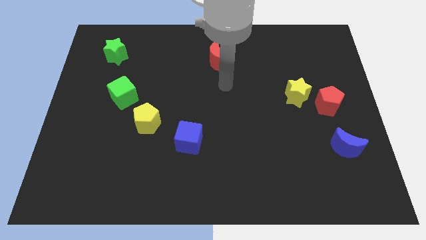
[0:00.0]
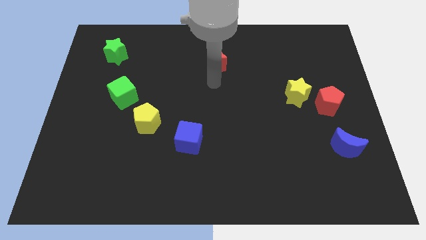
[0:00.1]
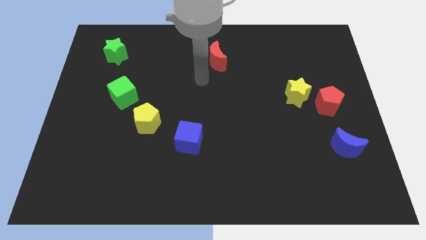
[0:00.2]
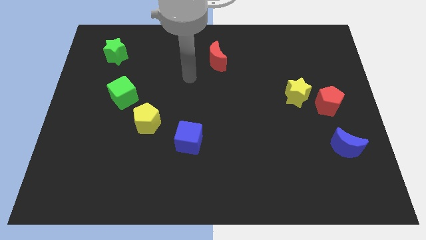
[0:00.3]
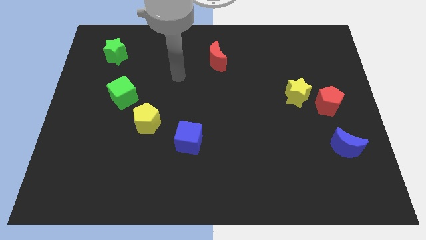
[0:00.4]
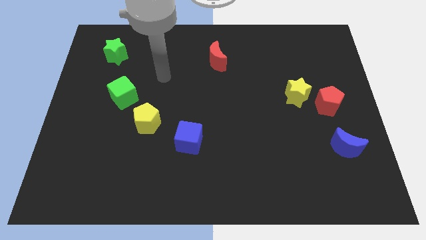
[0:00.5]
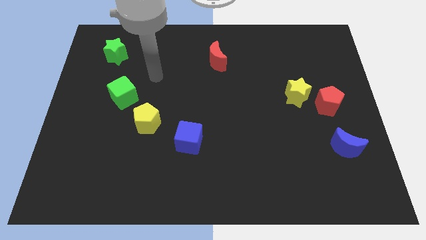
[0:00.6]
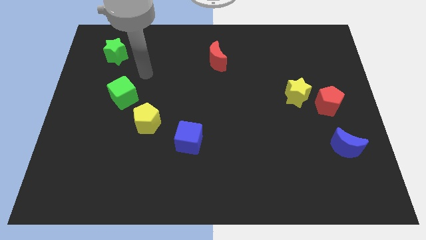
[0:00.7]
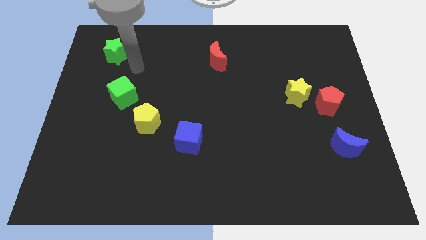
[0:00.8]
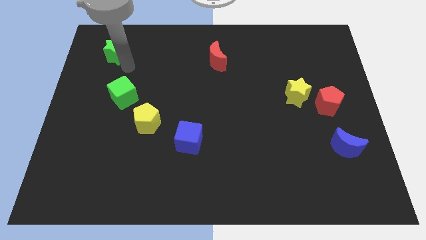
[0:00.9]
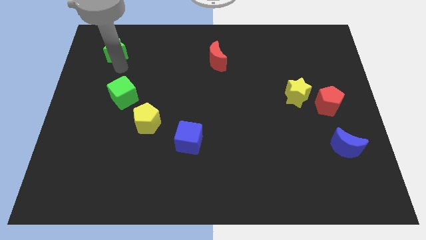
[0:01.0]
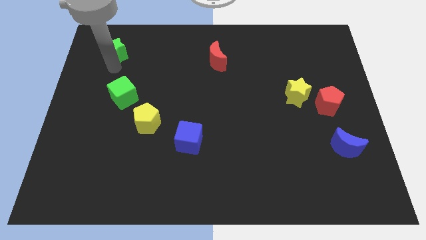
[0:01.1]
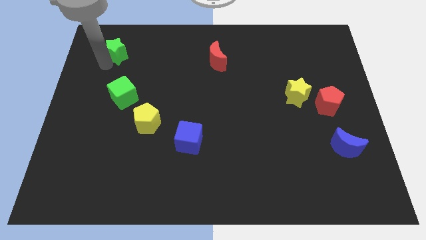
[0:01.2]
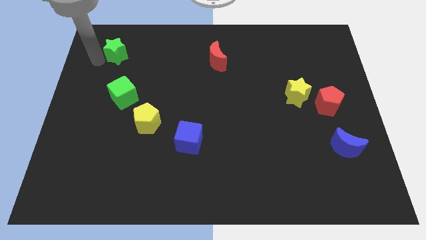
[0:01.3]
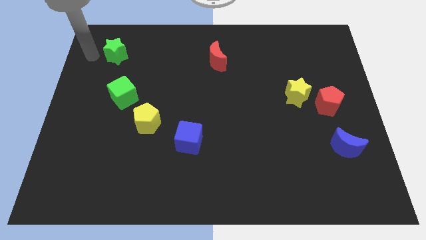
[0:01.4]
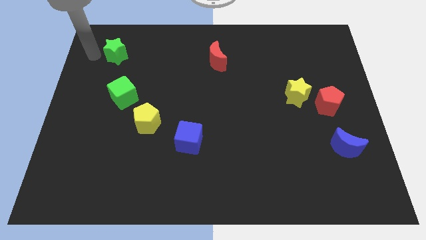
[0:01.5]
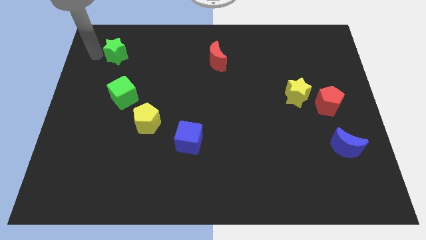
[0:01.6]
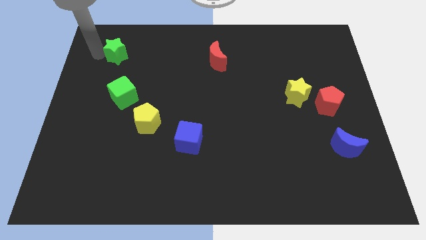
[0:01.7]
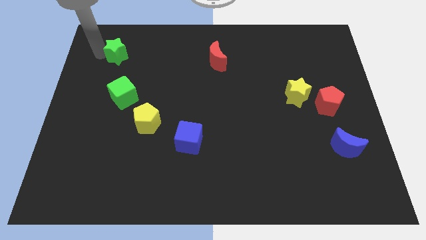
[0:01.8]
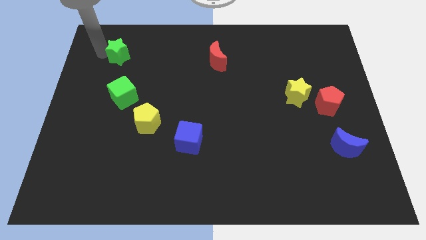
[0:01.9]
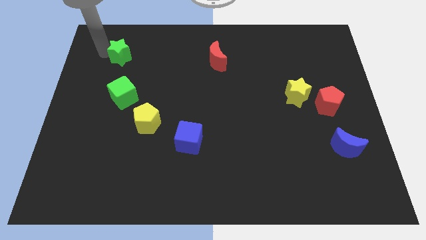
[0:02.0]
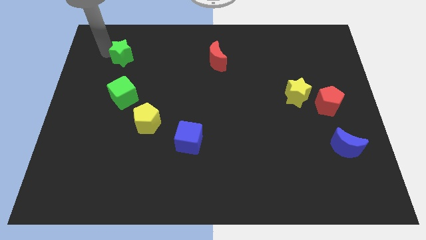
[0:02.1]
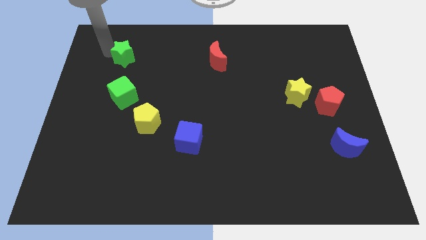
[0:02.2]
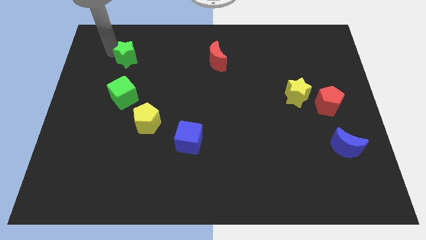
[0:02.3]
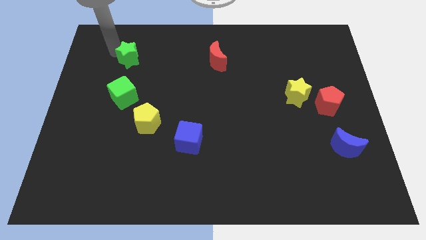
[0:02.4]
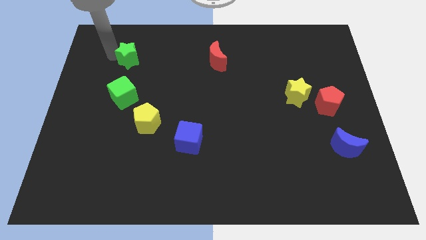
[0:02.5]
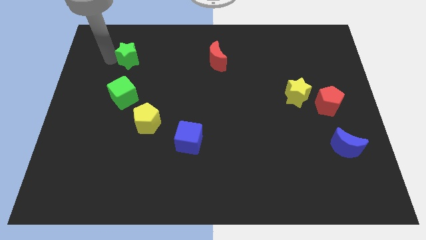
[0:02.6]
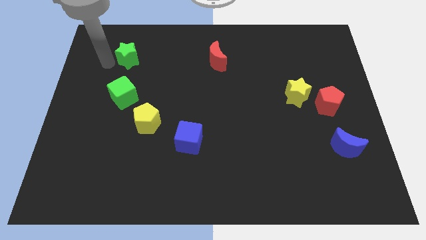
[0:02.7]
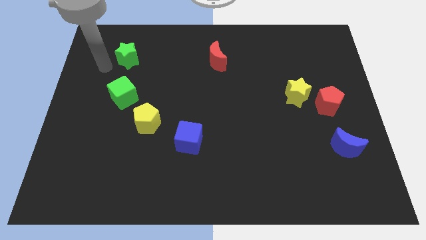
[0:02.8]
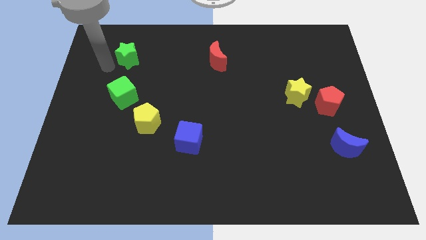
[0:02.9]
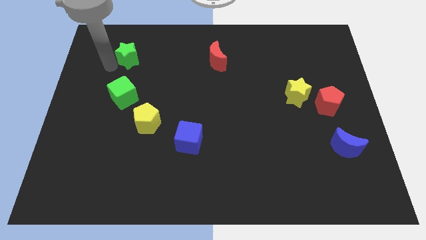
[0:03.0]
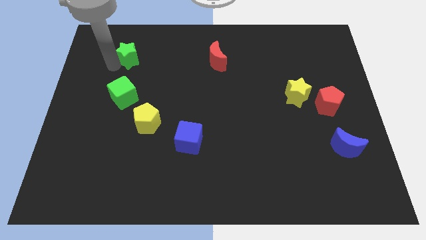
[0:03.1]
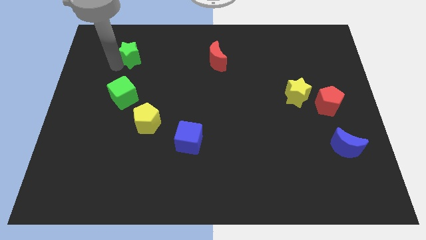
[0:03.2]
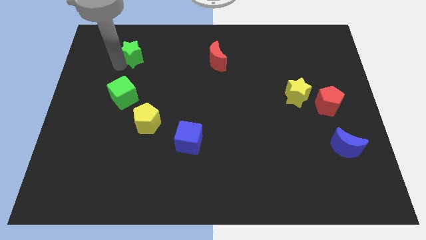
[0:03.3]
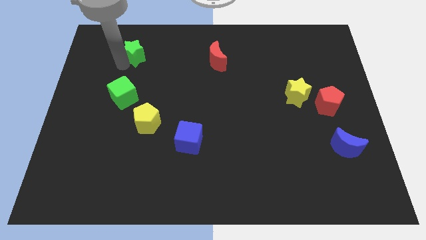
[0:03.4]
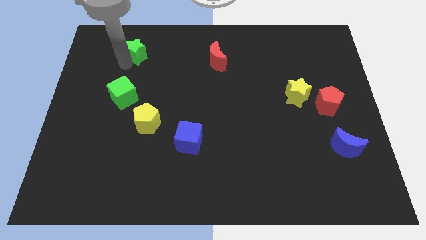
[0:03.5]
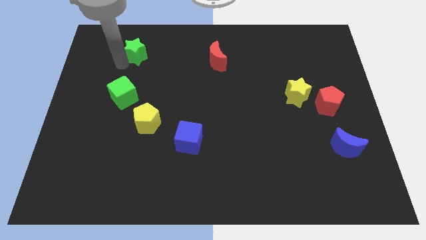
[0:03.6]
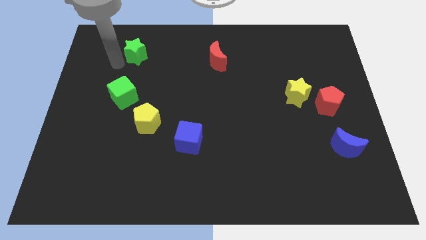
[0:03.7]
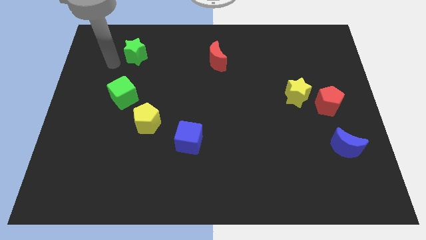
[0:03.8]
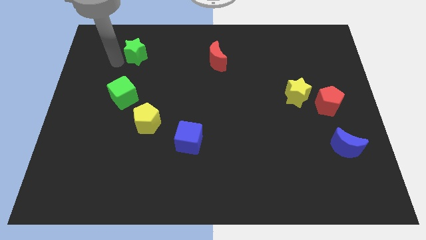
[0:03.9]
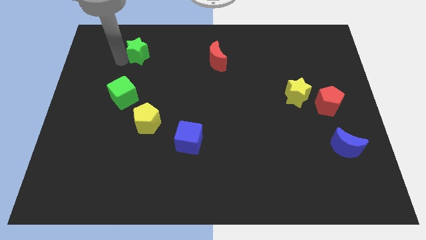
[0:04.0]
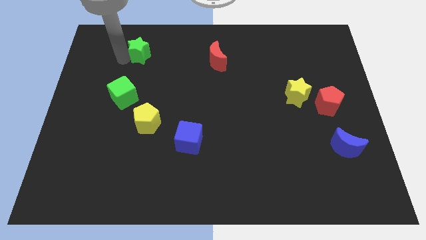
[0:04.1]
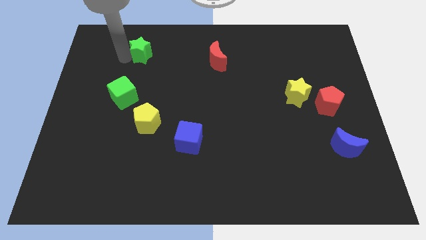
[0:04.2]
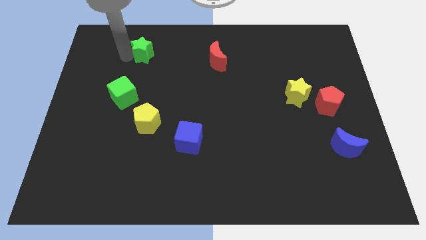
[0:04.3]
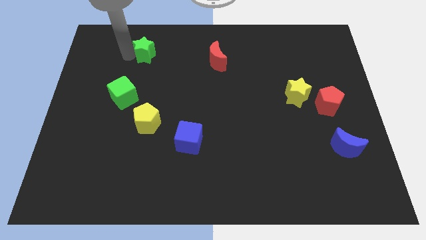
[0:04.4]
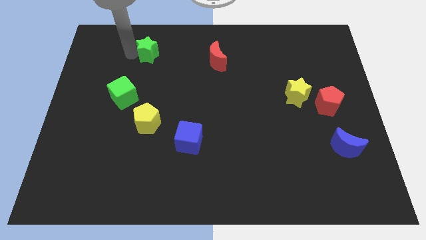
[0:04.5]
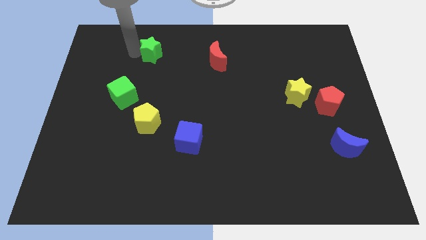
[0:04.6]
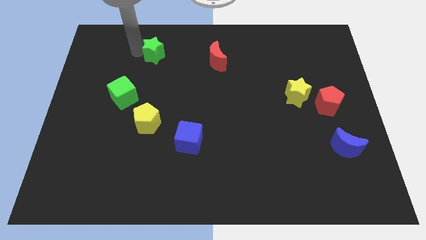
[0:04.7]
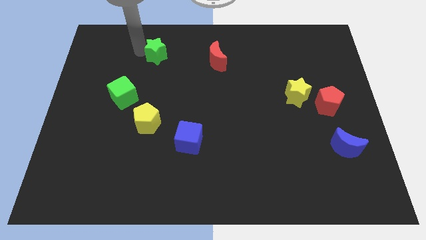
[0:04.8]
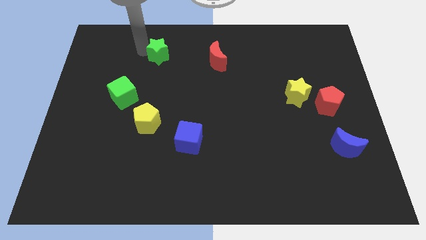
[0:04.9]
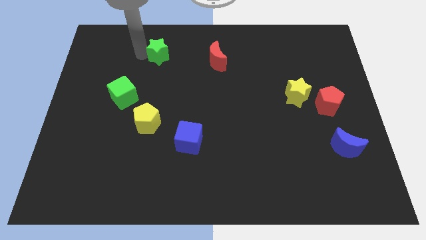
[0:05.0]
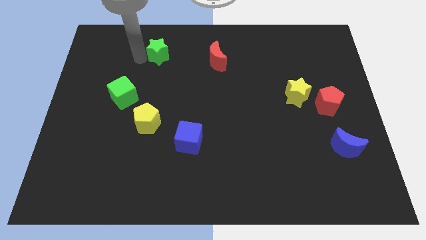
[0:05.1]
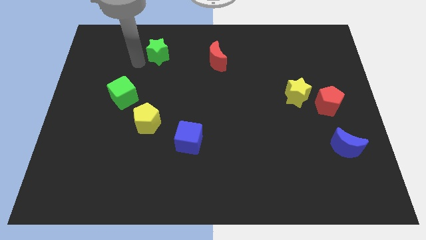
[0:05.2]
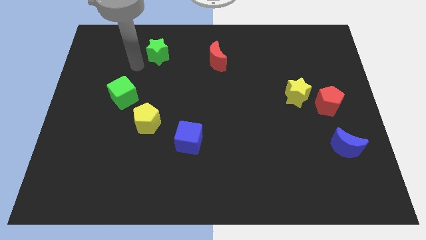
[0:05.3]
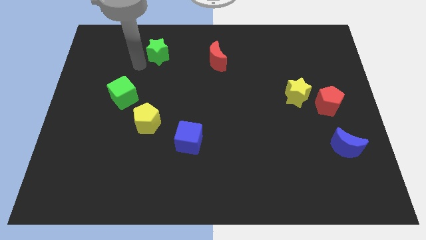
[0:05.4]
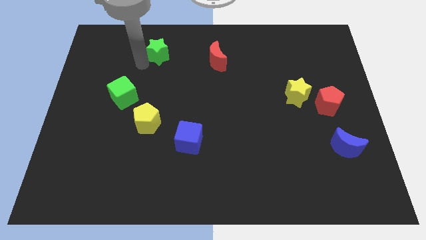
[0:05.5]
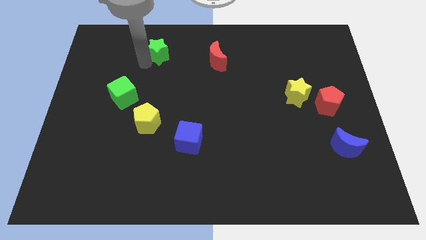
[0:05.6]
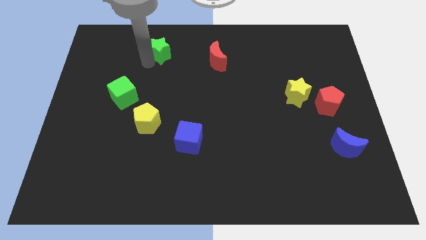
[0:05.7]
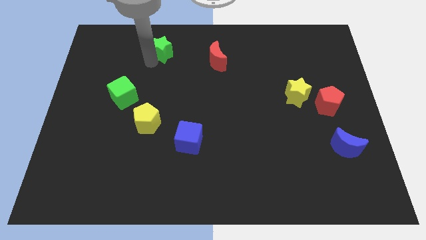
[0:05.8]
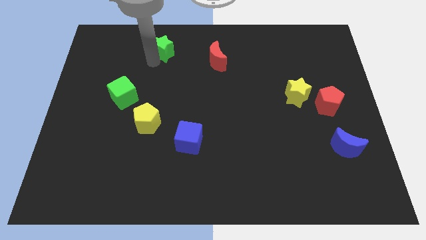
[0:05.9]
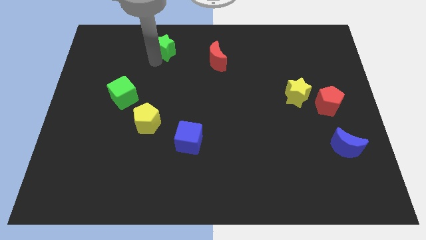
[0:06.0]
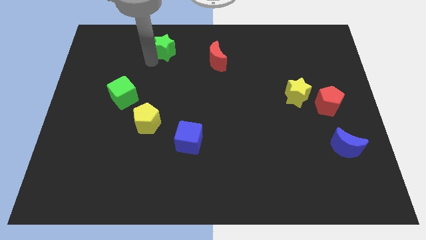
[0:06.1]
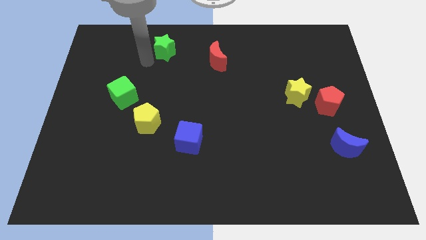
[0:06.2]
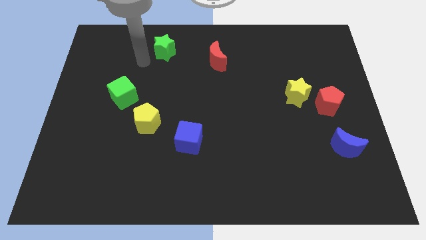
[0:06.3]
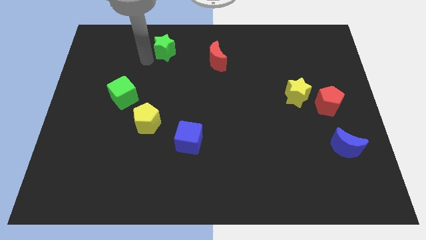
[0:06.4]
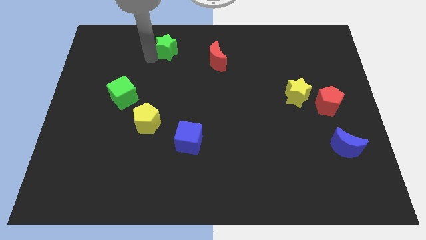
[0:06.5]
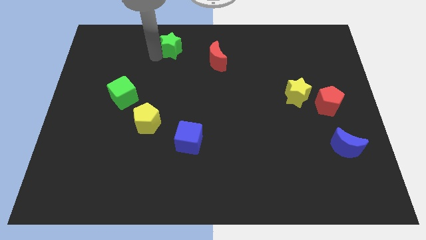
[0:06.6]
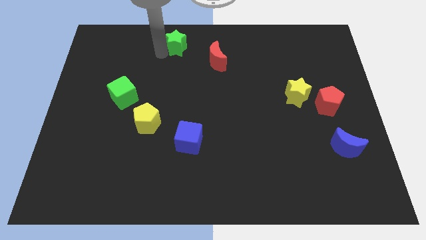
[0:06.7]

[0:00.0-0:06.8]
put the green star to the top side

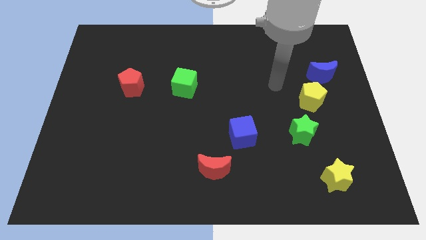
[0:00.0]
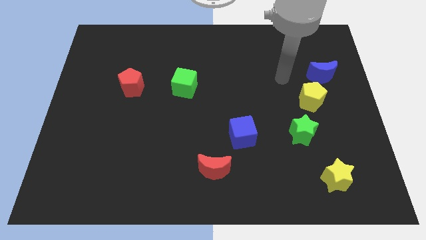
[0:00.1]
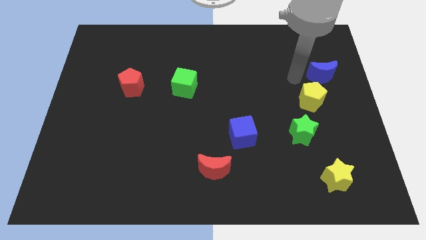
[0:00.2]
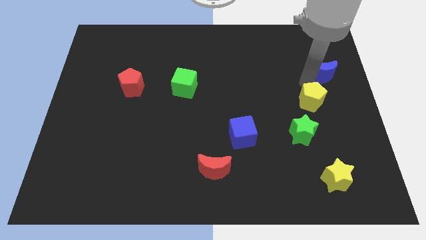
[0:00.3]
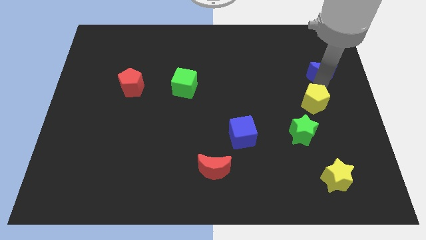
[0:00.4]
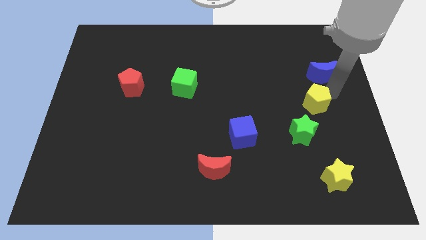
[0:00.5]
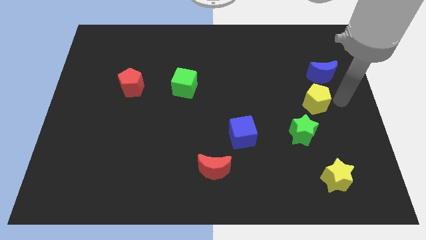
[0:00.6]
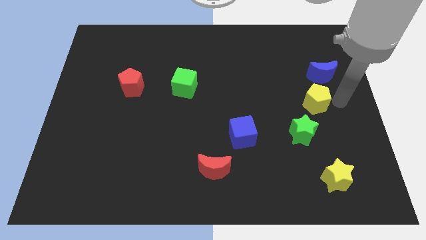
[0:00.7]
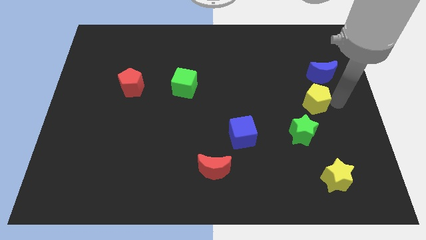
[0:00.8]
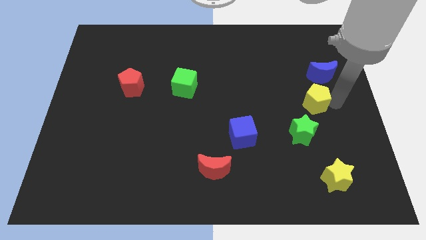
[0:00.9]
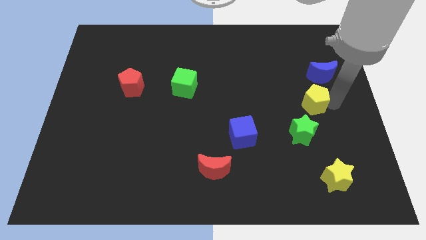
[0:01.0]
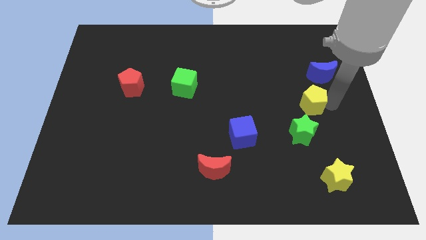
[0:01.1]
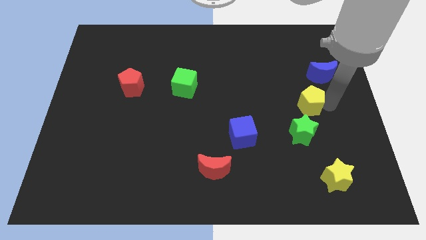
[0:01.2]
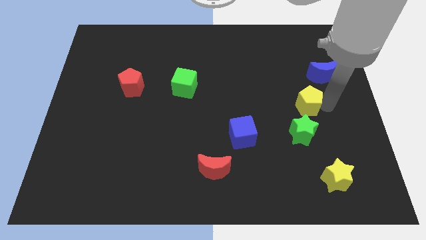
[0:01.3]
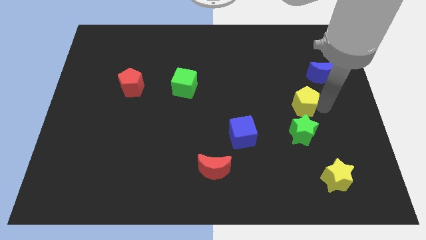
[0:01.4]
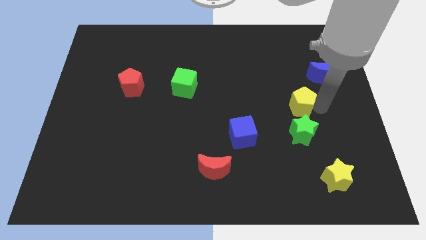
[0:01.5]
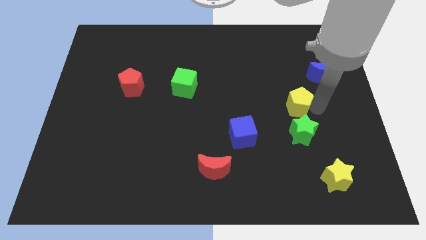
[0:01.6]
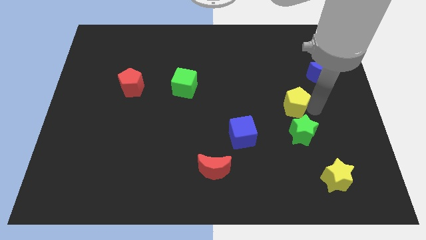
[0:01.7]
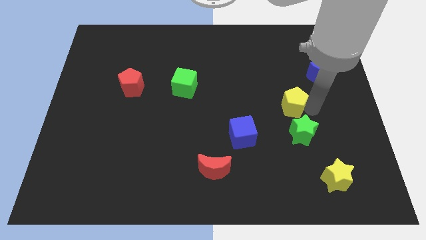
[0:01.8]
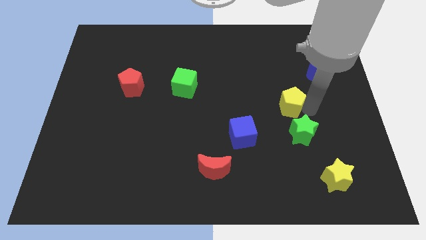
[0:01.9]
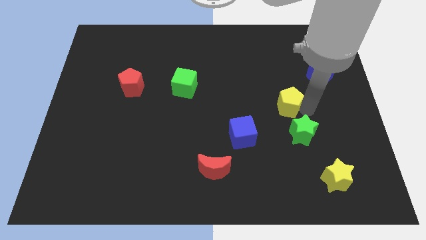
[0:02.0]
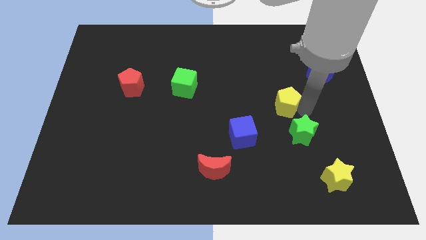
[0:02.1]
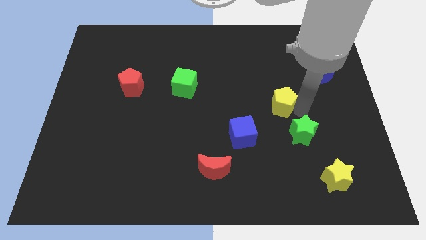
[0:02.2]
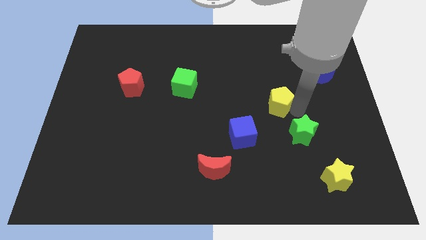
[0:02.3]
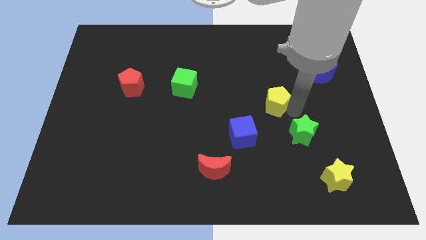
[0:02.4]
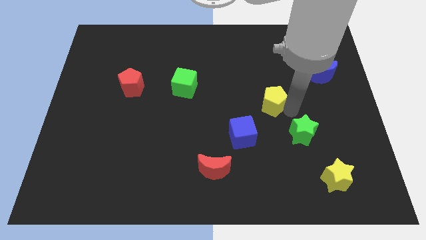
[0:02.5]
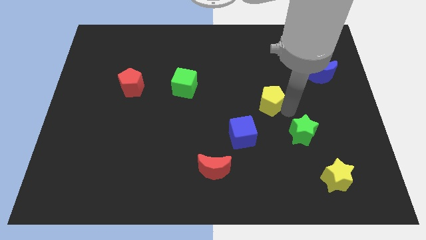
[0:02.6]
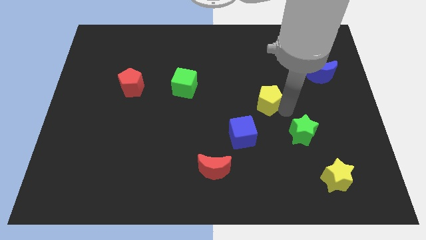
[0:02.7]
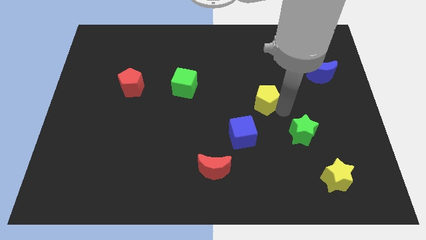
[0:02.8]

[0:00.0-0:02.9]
slide the yellow pentagon to the middle of the board
